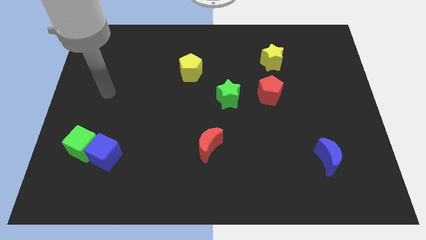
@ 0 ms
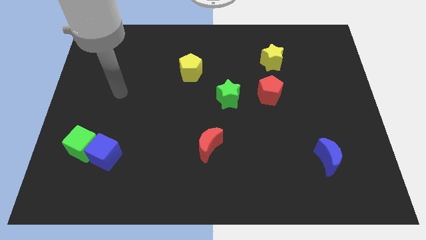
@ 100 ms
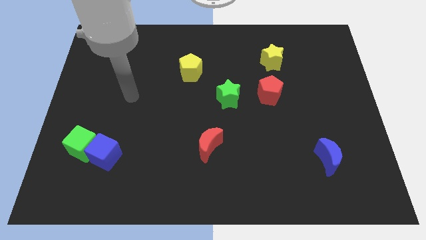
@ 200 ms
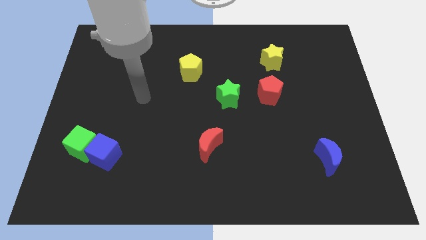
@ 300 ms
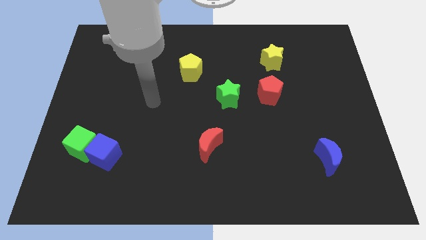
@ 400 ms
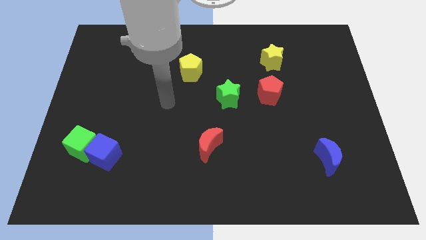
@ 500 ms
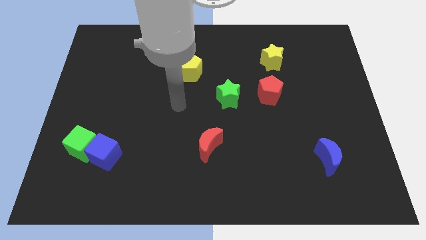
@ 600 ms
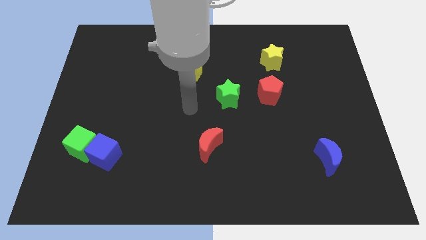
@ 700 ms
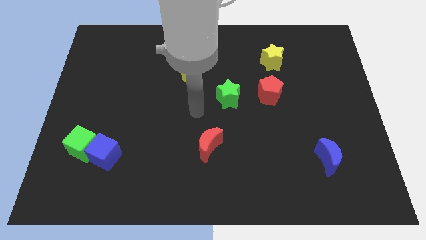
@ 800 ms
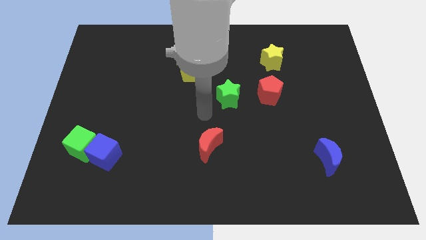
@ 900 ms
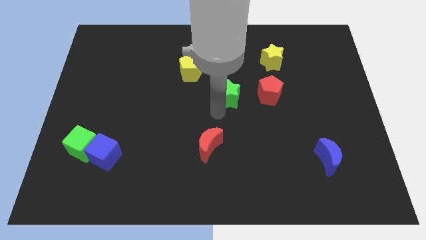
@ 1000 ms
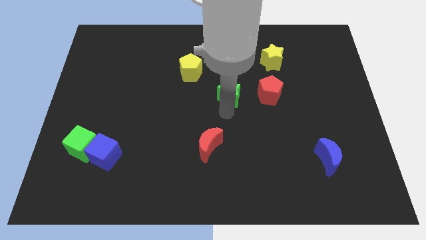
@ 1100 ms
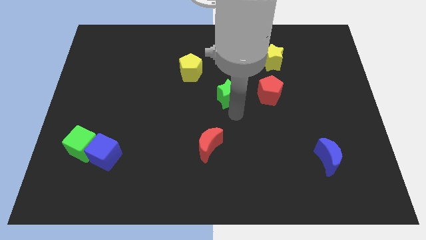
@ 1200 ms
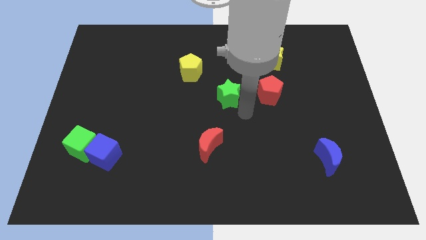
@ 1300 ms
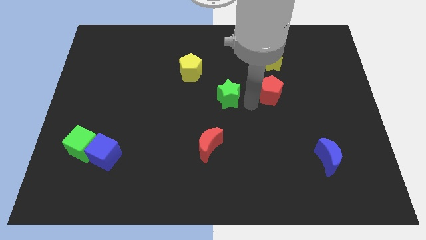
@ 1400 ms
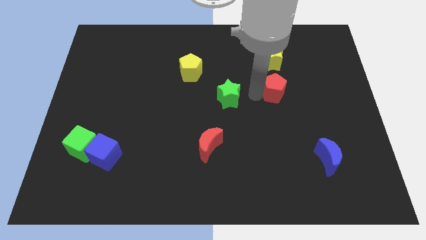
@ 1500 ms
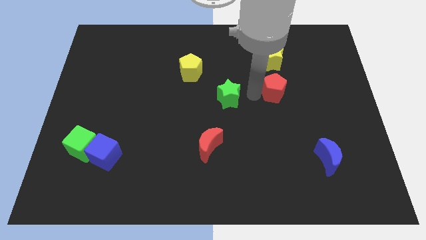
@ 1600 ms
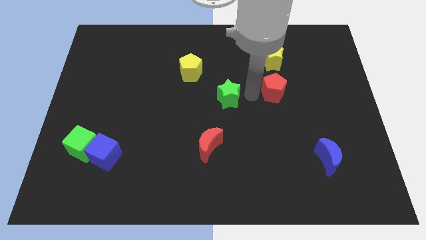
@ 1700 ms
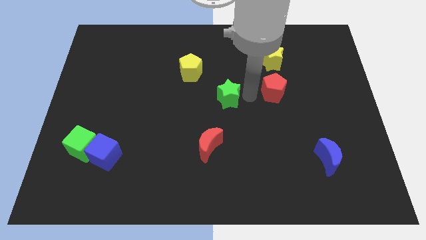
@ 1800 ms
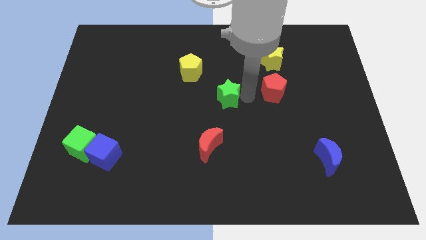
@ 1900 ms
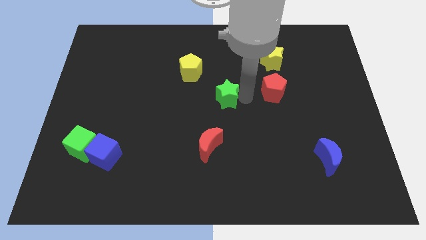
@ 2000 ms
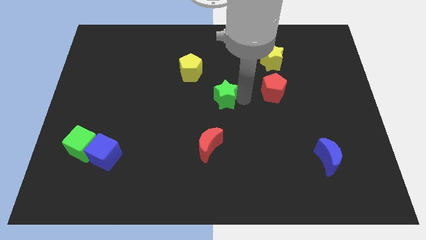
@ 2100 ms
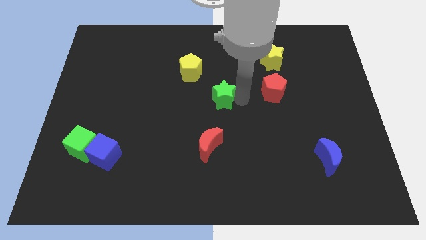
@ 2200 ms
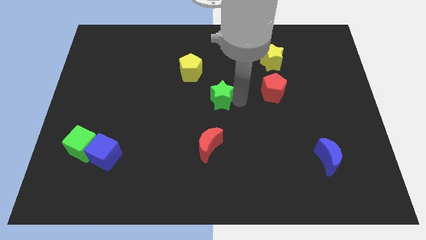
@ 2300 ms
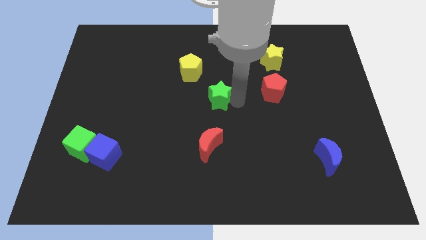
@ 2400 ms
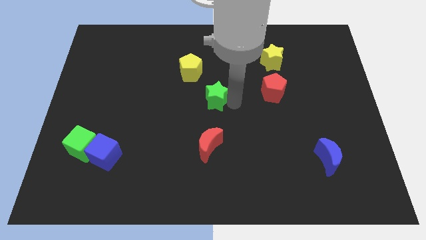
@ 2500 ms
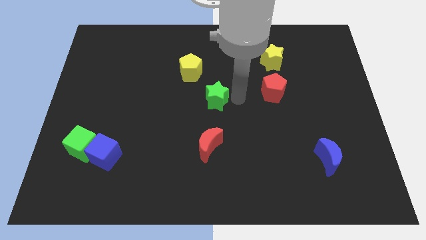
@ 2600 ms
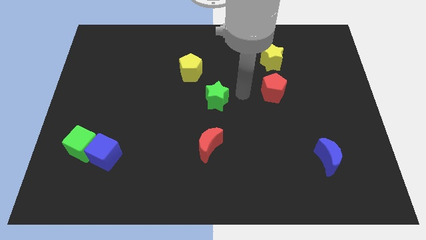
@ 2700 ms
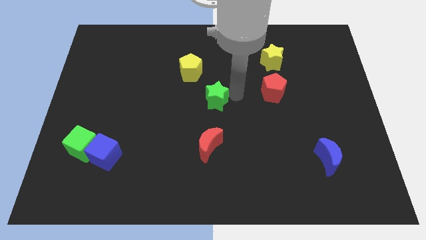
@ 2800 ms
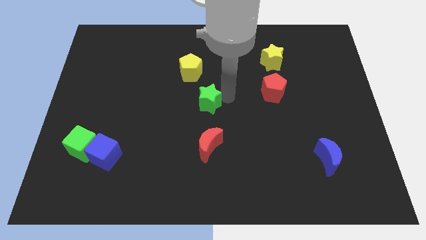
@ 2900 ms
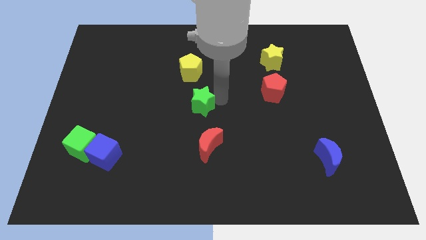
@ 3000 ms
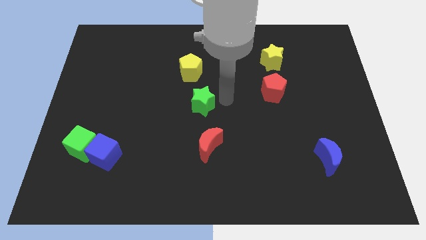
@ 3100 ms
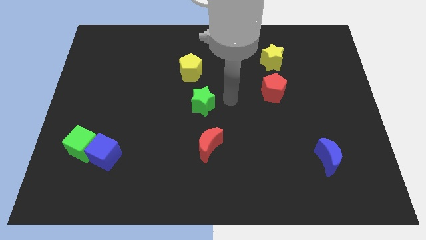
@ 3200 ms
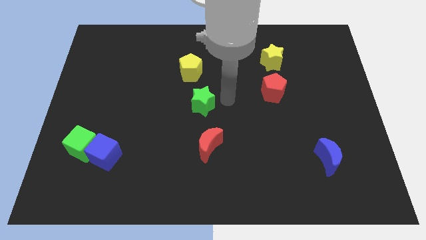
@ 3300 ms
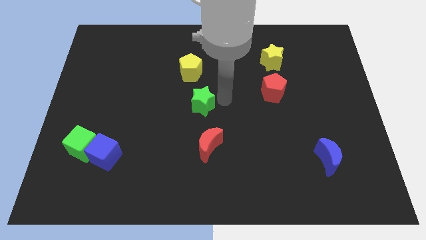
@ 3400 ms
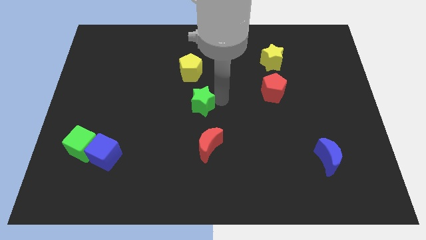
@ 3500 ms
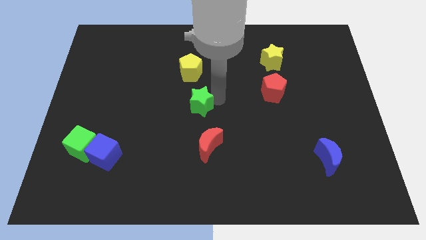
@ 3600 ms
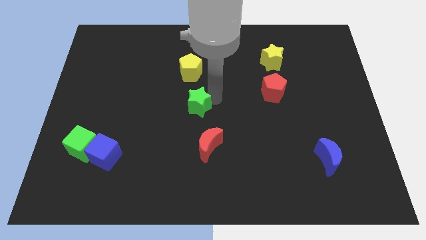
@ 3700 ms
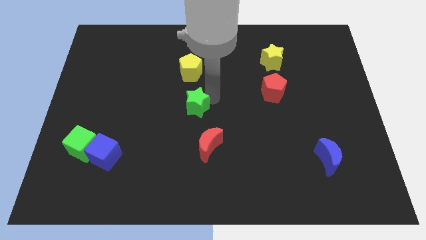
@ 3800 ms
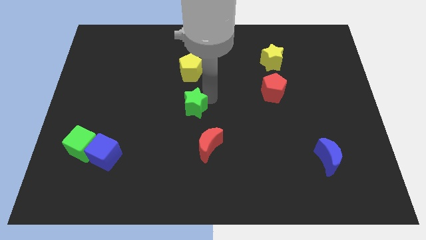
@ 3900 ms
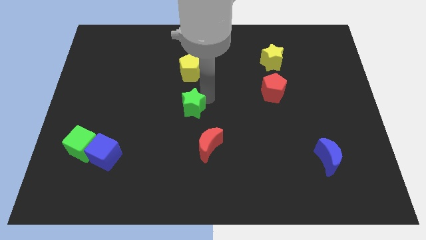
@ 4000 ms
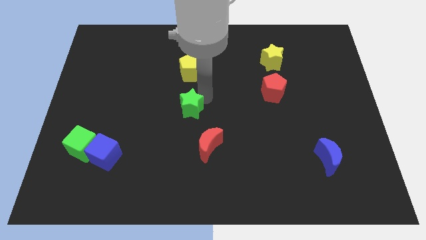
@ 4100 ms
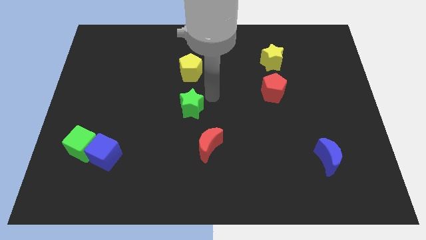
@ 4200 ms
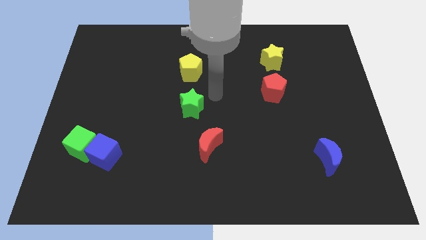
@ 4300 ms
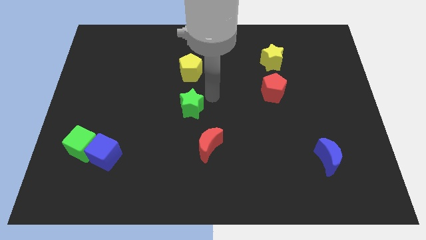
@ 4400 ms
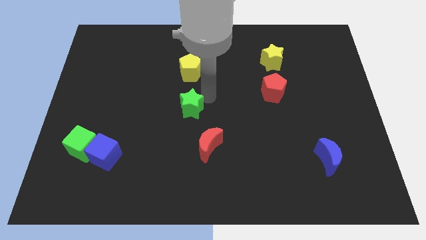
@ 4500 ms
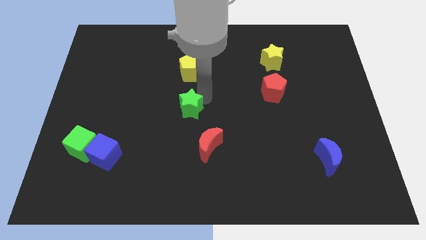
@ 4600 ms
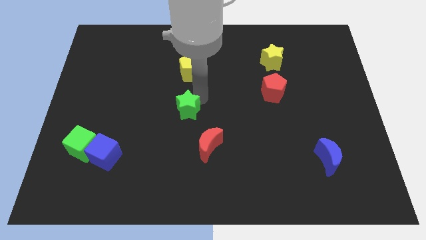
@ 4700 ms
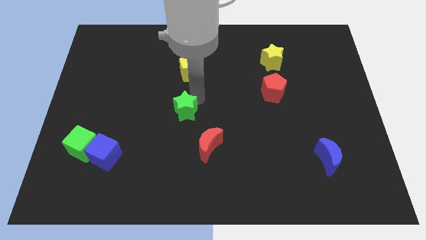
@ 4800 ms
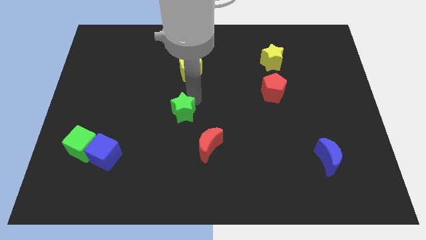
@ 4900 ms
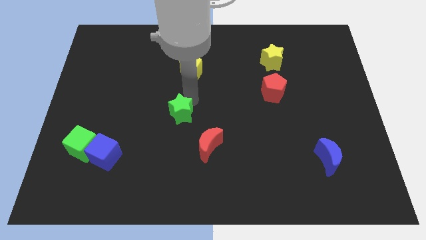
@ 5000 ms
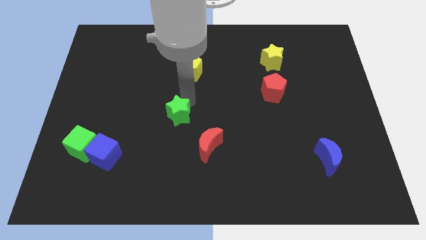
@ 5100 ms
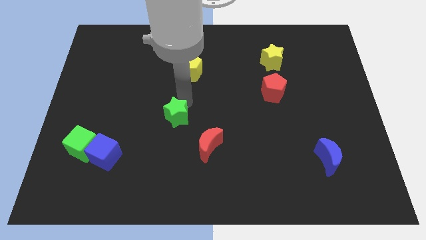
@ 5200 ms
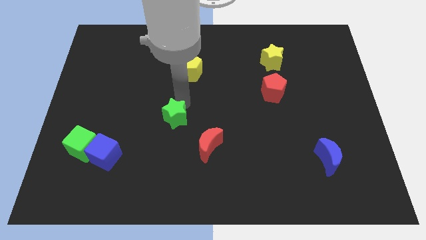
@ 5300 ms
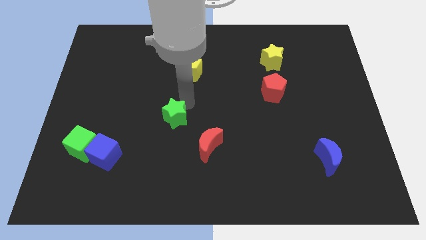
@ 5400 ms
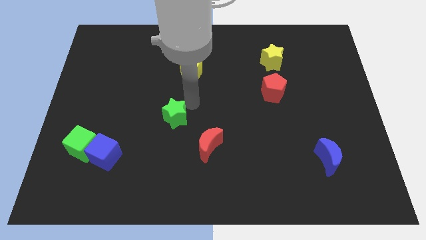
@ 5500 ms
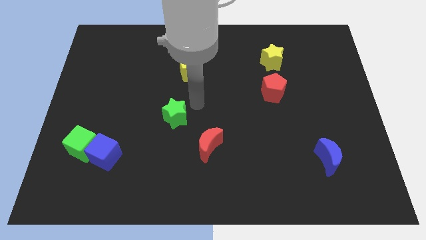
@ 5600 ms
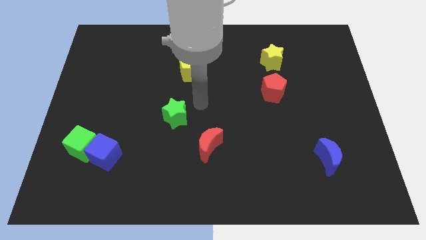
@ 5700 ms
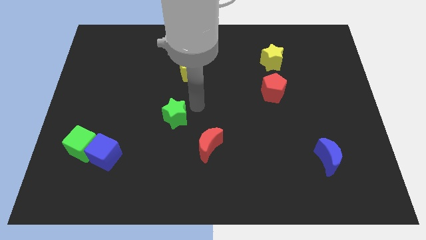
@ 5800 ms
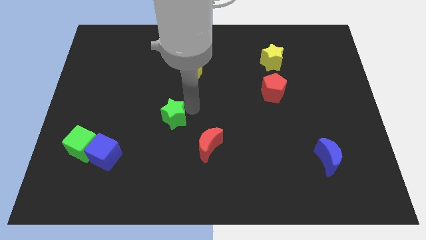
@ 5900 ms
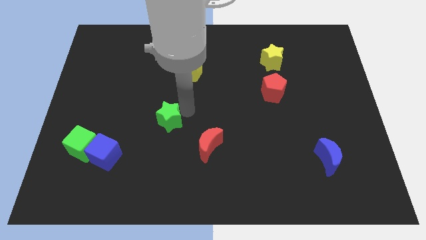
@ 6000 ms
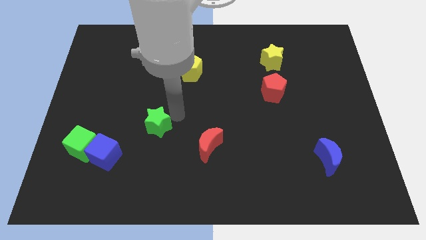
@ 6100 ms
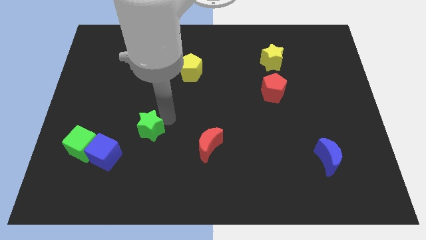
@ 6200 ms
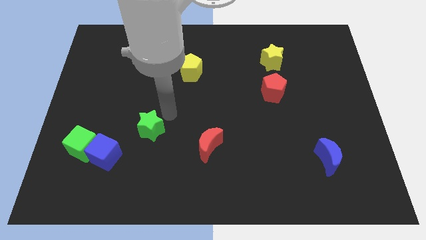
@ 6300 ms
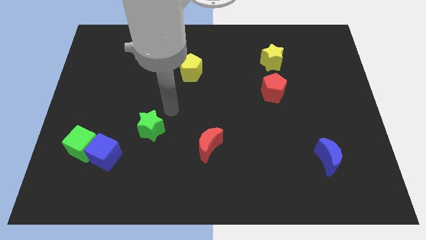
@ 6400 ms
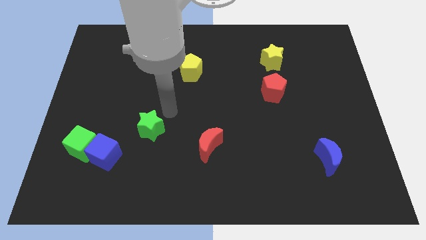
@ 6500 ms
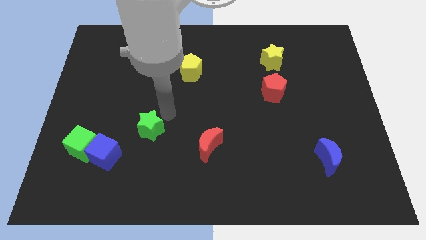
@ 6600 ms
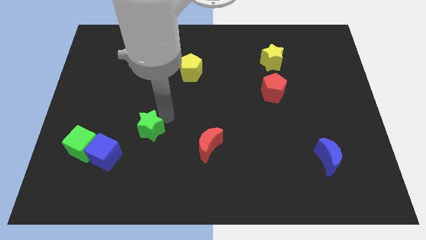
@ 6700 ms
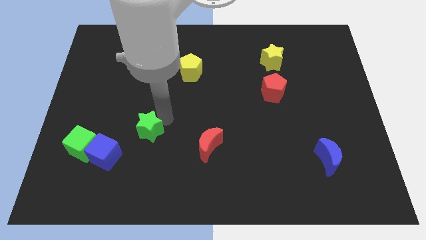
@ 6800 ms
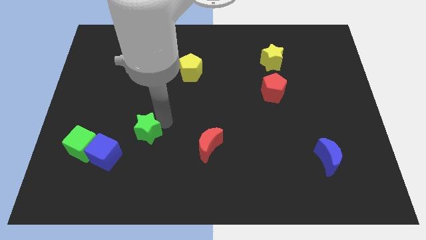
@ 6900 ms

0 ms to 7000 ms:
move the green star to the right of the green cube

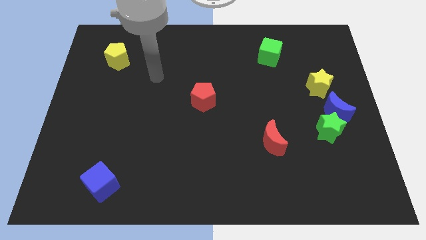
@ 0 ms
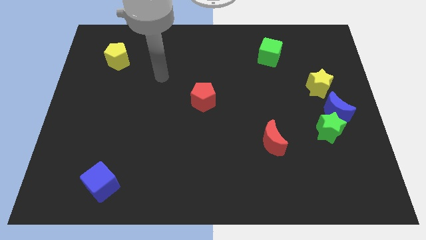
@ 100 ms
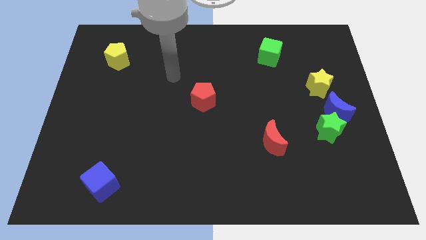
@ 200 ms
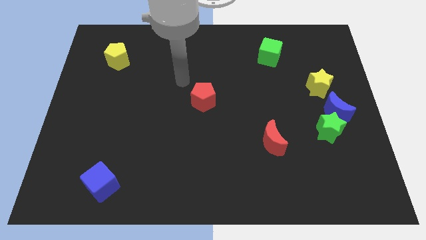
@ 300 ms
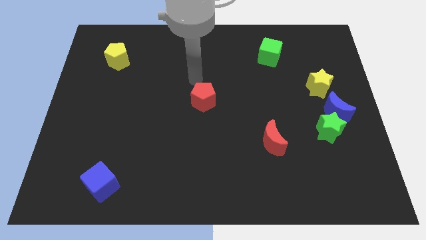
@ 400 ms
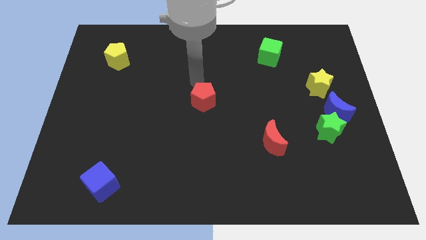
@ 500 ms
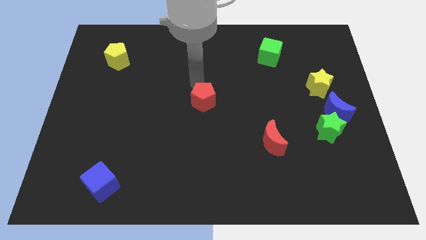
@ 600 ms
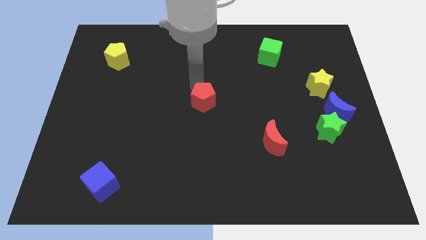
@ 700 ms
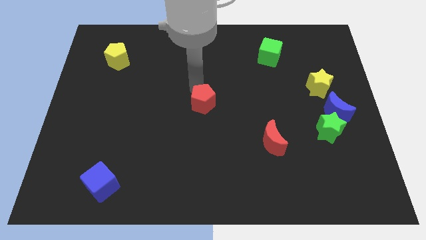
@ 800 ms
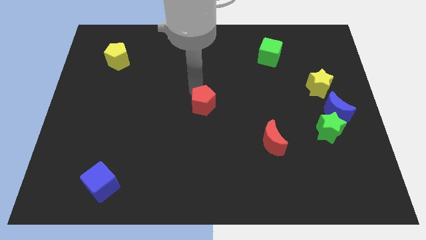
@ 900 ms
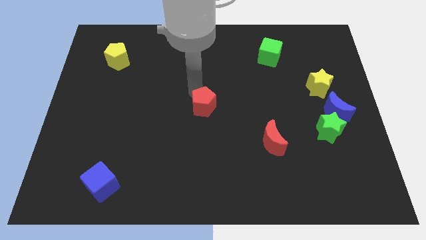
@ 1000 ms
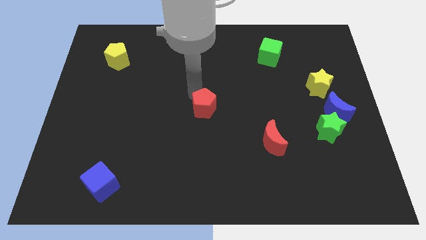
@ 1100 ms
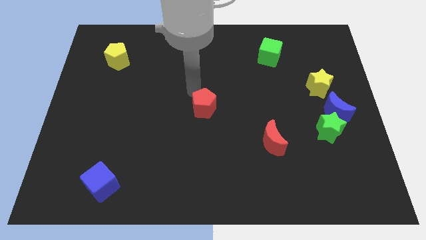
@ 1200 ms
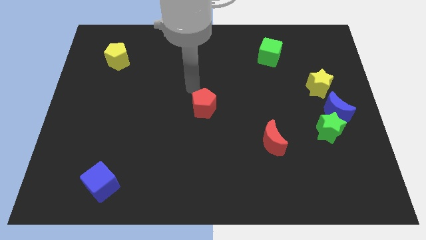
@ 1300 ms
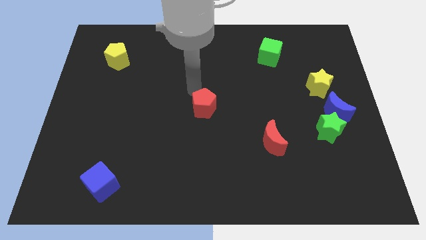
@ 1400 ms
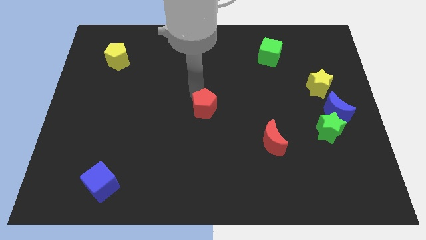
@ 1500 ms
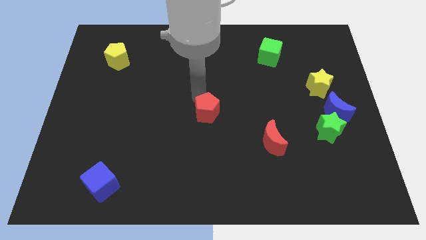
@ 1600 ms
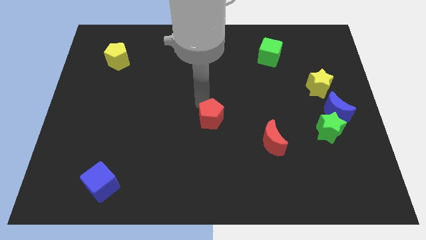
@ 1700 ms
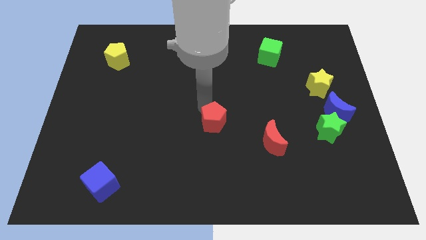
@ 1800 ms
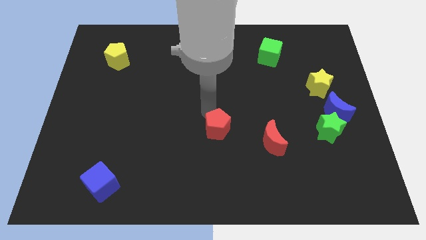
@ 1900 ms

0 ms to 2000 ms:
push the red pentagon to the left of the red moon
